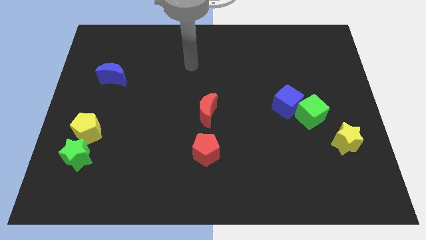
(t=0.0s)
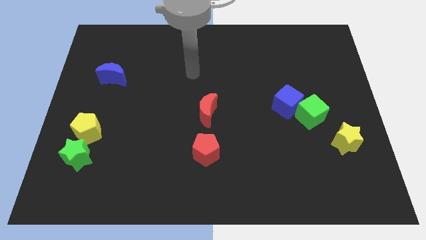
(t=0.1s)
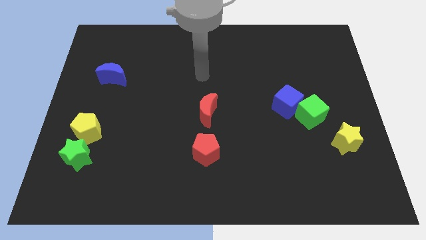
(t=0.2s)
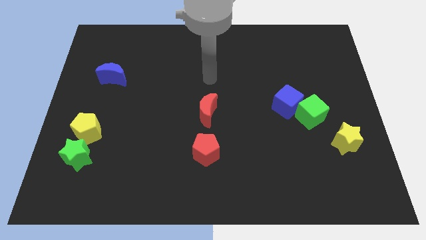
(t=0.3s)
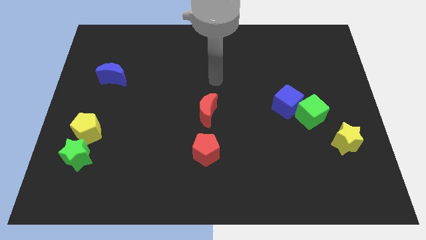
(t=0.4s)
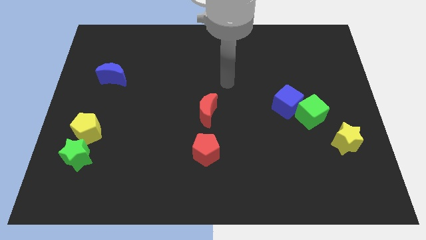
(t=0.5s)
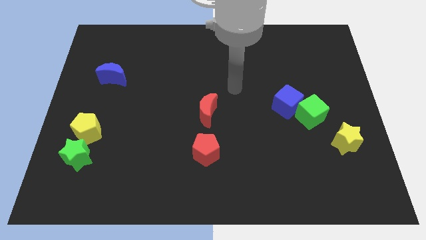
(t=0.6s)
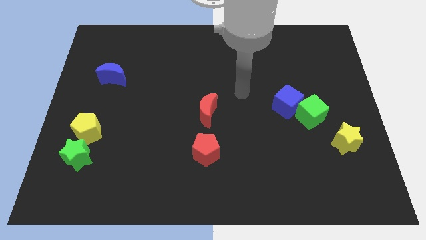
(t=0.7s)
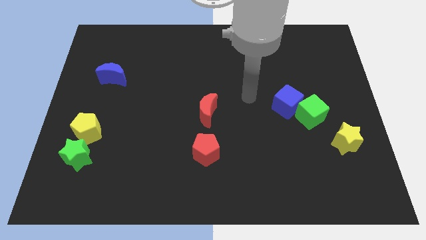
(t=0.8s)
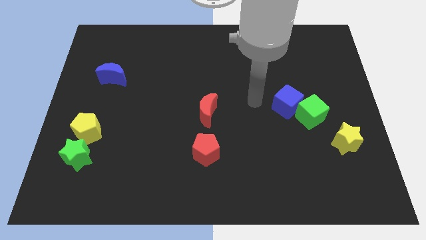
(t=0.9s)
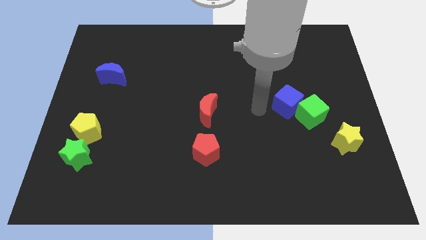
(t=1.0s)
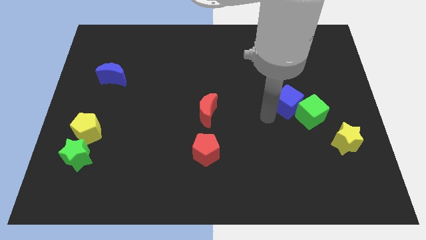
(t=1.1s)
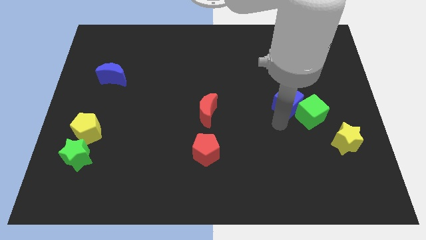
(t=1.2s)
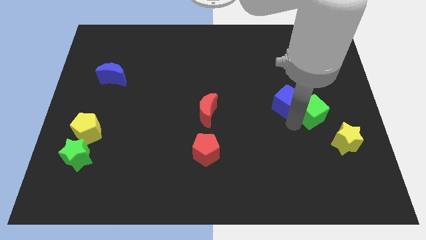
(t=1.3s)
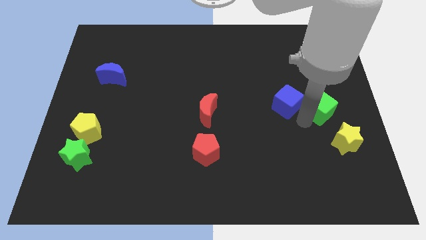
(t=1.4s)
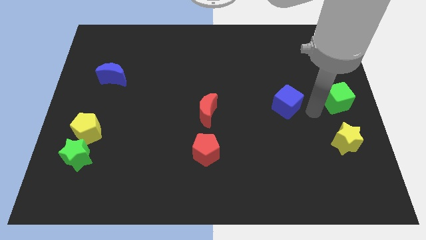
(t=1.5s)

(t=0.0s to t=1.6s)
pull the blue cube apart from the green cube

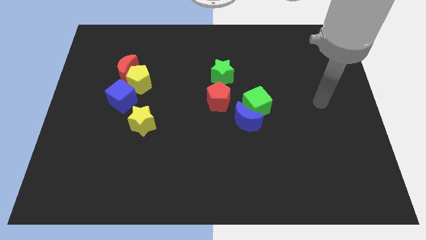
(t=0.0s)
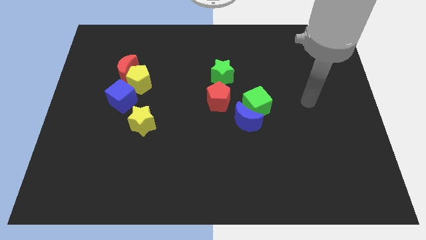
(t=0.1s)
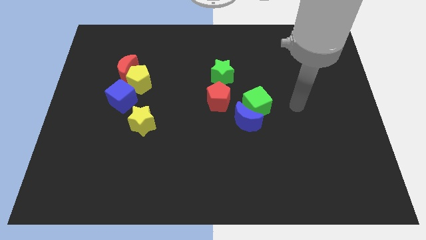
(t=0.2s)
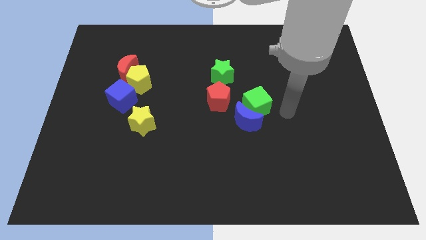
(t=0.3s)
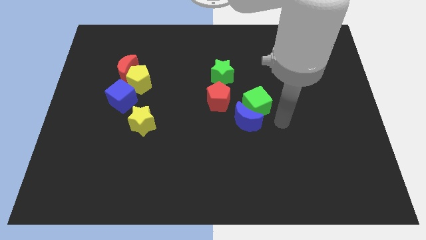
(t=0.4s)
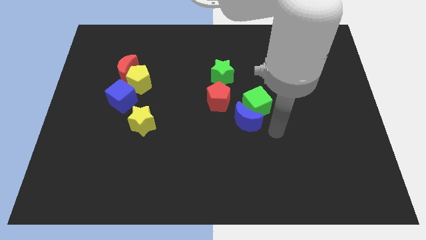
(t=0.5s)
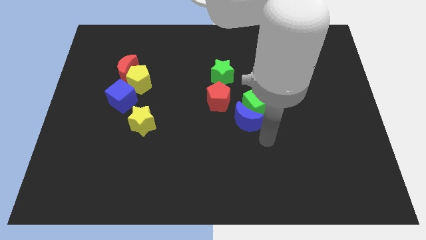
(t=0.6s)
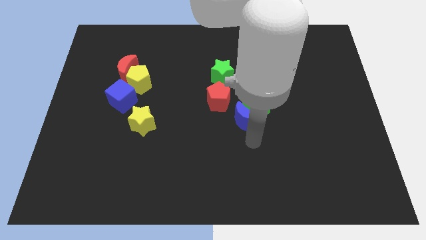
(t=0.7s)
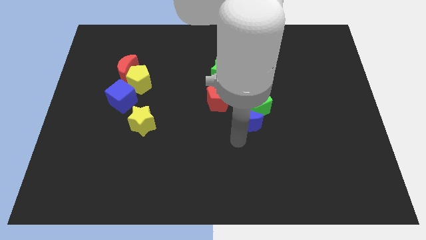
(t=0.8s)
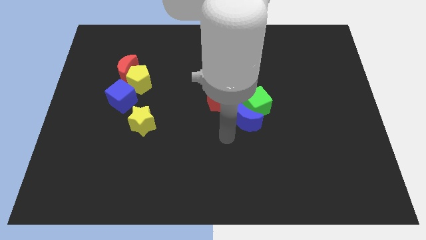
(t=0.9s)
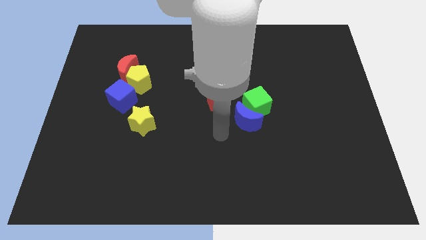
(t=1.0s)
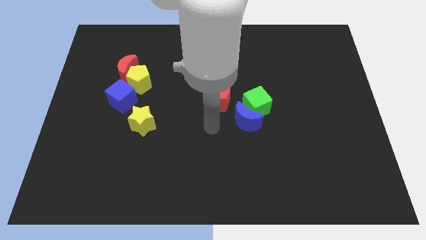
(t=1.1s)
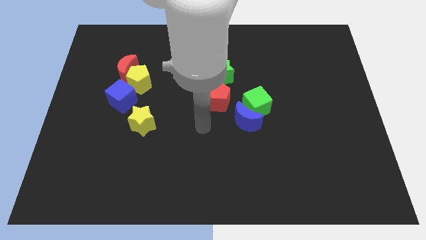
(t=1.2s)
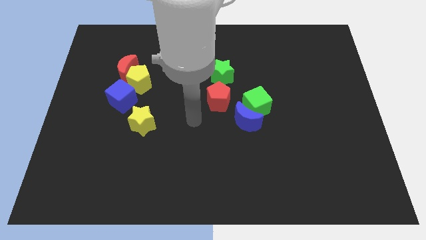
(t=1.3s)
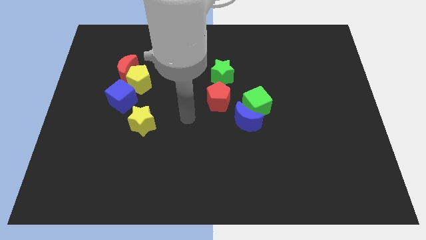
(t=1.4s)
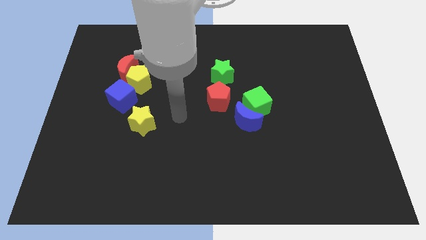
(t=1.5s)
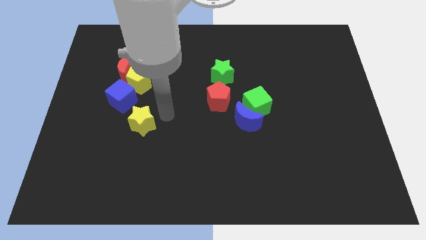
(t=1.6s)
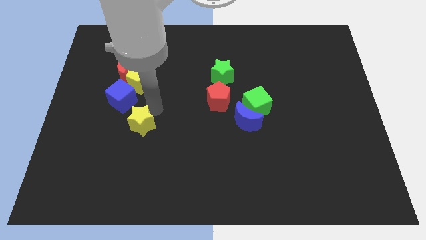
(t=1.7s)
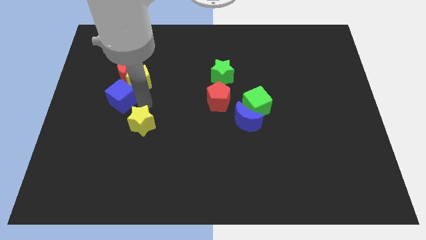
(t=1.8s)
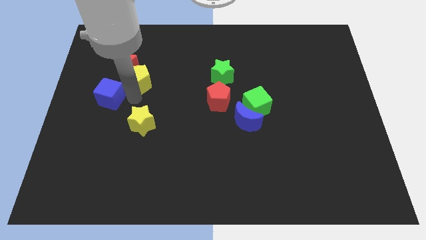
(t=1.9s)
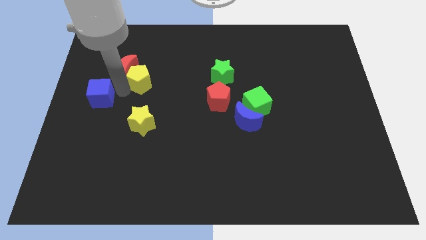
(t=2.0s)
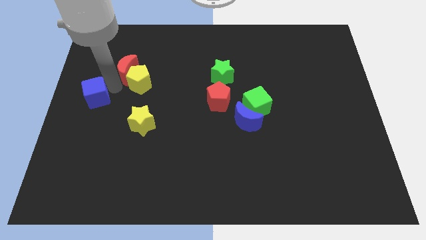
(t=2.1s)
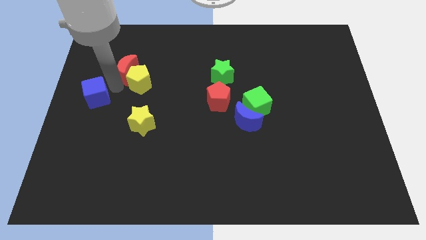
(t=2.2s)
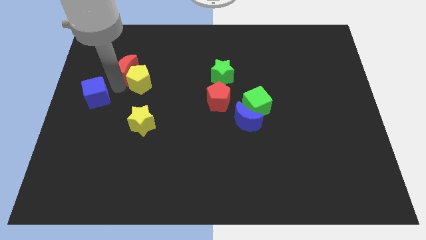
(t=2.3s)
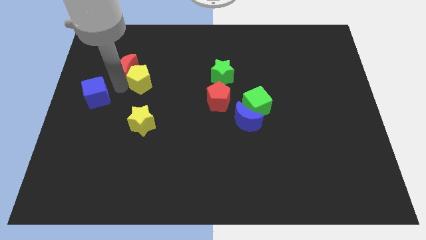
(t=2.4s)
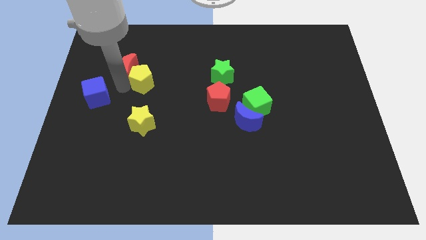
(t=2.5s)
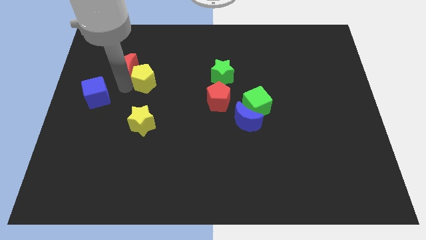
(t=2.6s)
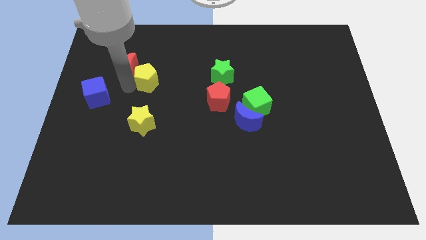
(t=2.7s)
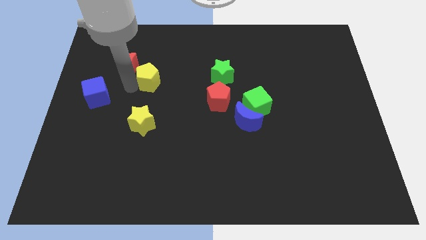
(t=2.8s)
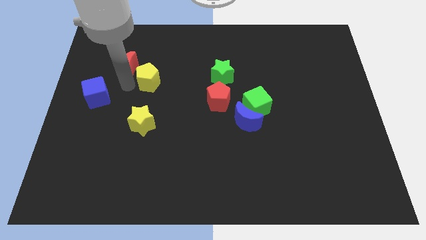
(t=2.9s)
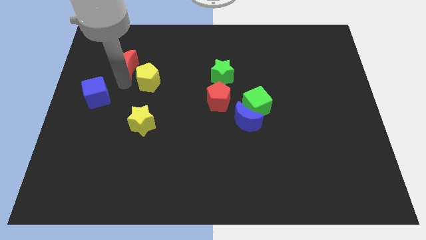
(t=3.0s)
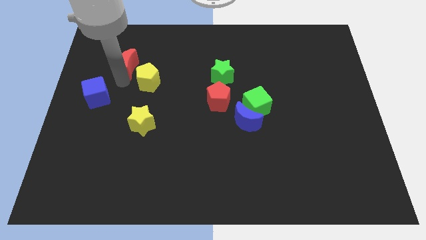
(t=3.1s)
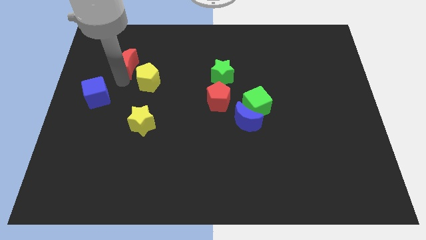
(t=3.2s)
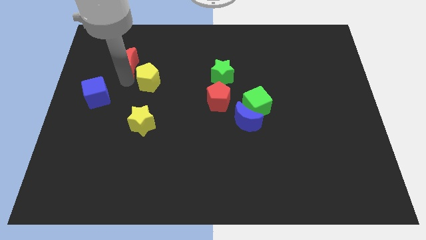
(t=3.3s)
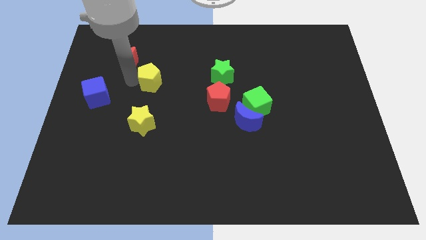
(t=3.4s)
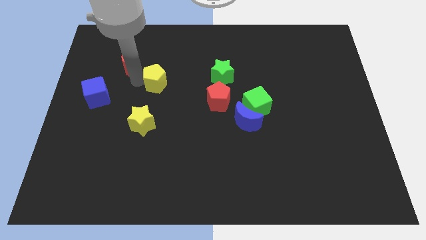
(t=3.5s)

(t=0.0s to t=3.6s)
move the yellow pentagon away from the red moon and blue cube

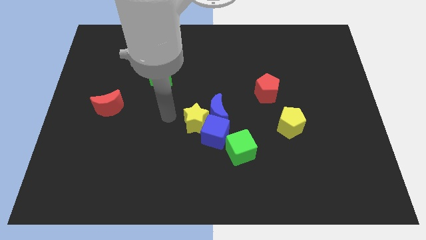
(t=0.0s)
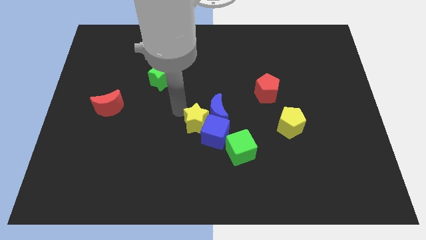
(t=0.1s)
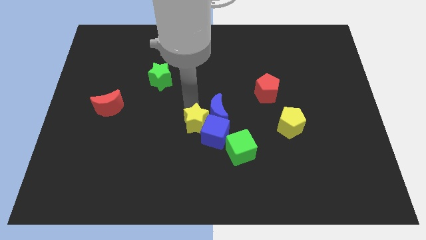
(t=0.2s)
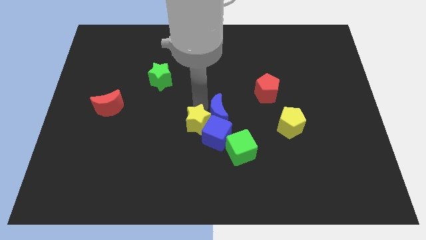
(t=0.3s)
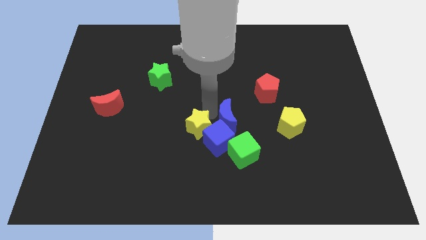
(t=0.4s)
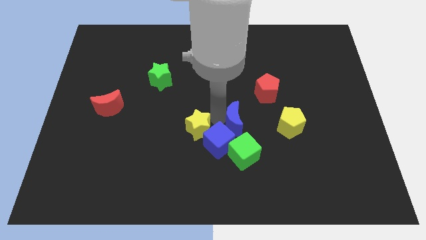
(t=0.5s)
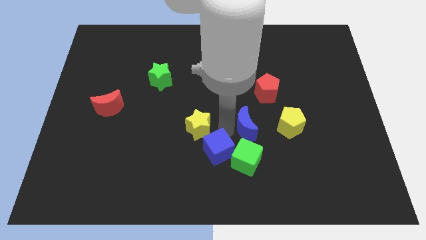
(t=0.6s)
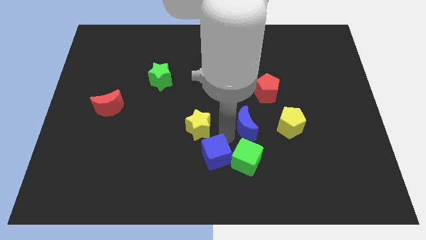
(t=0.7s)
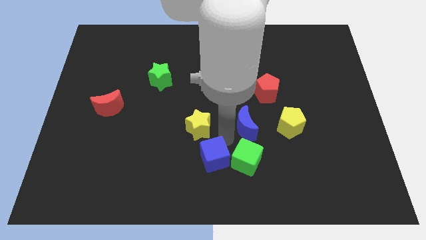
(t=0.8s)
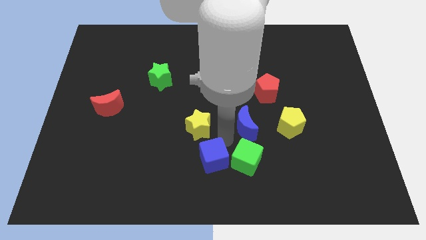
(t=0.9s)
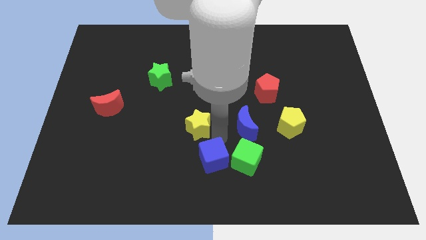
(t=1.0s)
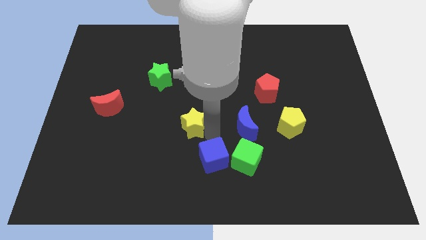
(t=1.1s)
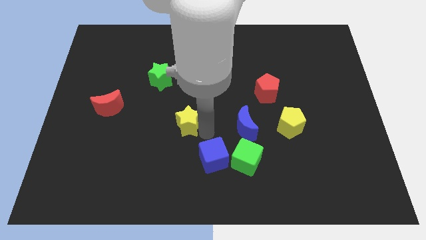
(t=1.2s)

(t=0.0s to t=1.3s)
pull the yellow star apart from the blue cube and blue moon

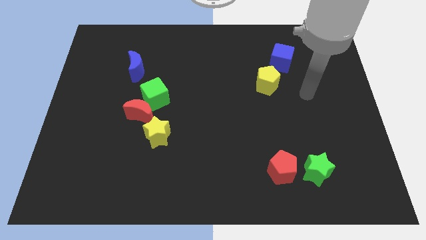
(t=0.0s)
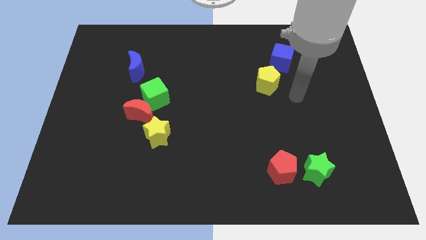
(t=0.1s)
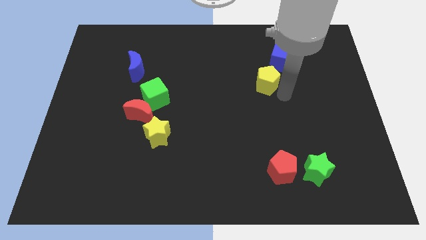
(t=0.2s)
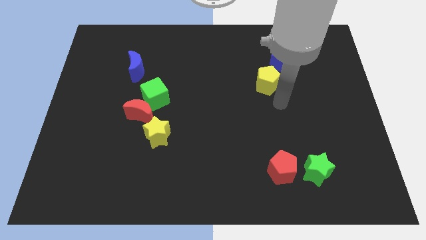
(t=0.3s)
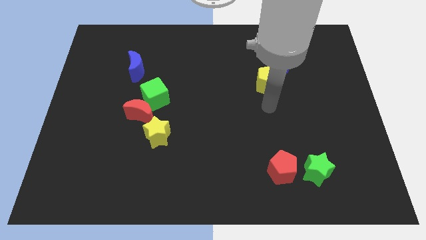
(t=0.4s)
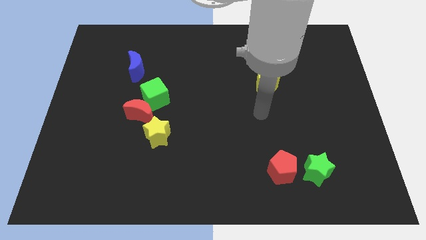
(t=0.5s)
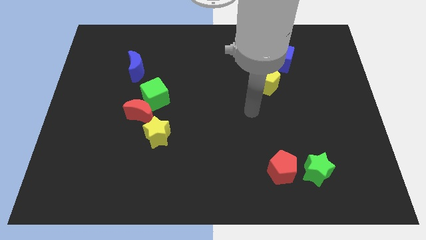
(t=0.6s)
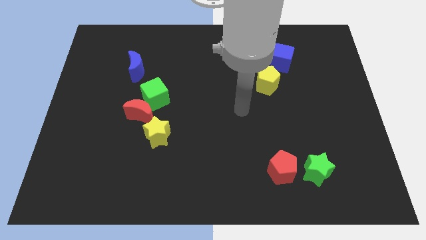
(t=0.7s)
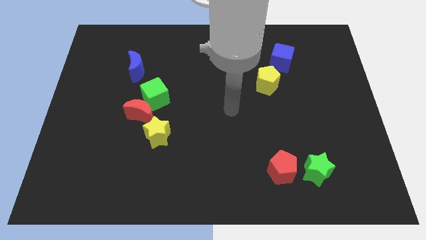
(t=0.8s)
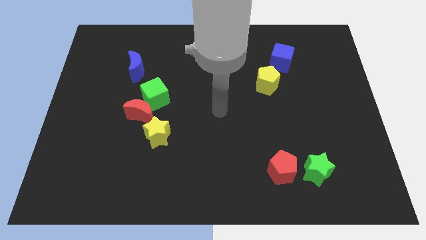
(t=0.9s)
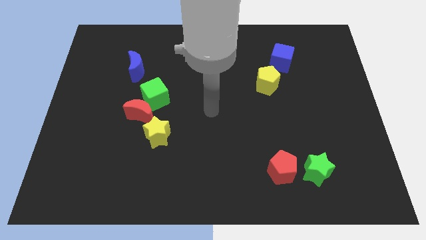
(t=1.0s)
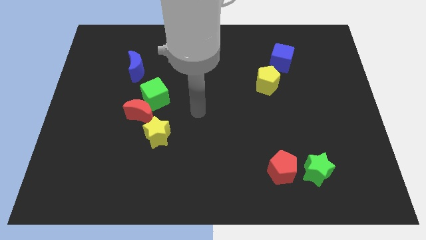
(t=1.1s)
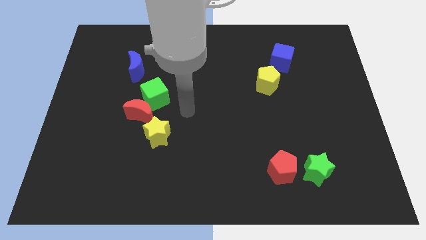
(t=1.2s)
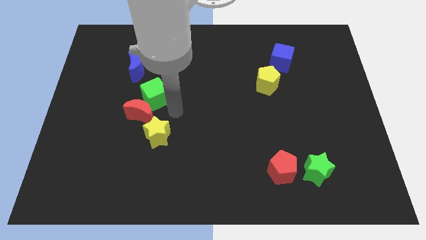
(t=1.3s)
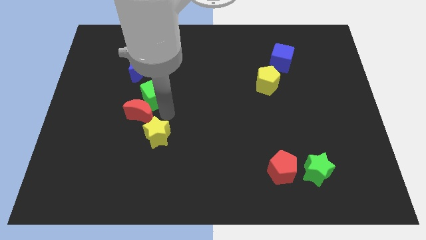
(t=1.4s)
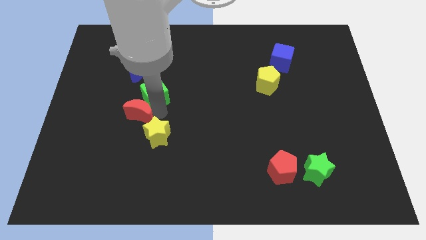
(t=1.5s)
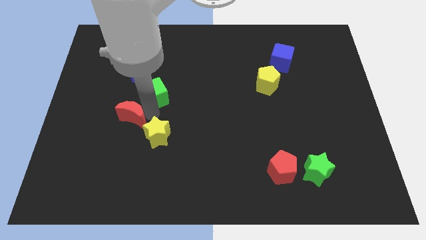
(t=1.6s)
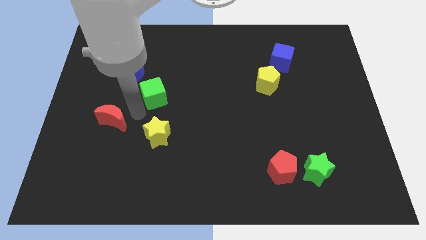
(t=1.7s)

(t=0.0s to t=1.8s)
separate the green cube from the red moon

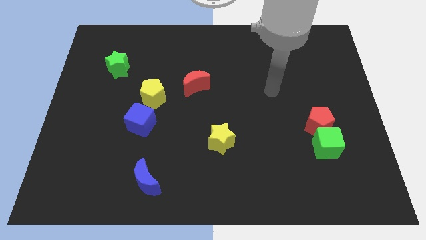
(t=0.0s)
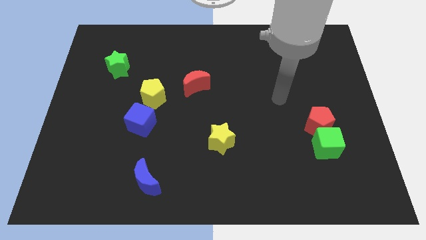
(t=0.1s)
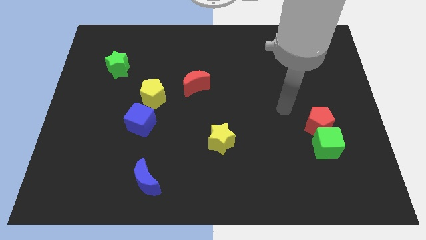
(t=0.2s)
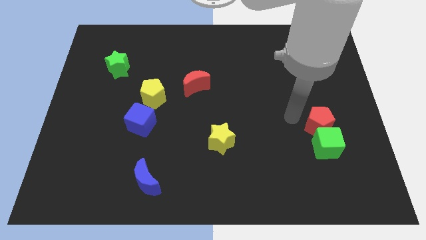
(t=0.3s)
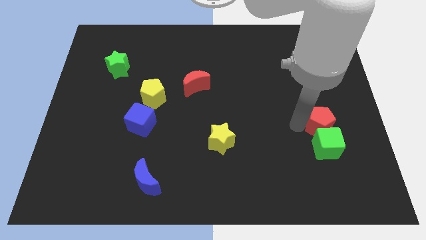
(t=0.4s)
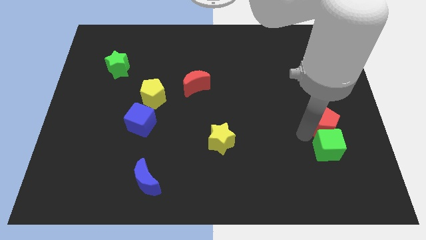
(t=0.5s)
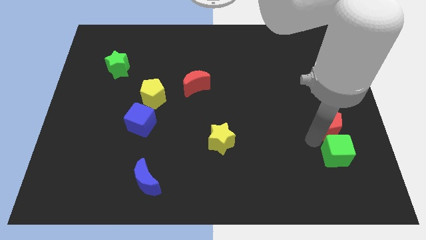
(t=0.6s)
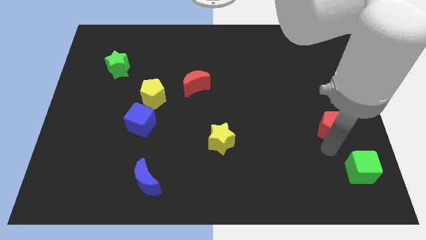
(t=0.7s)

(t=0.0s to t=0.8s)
pull the red pentagon apart from the green cube

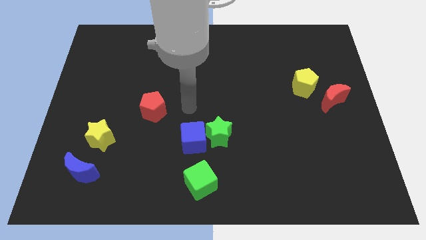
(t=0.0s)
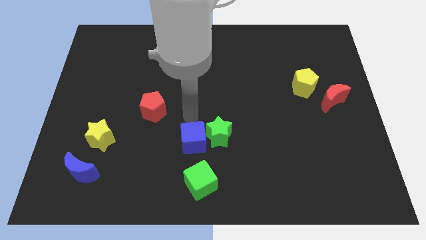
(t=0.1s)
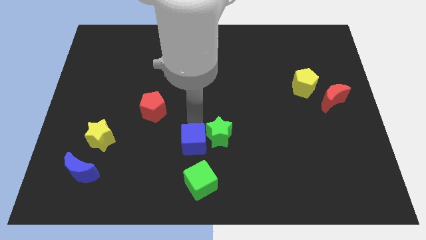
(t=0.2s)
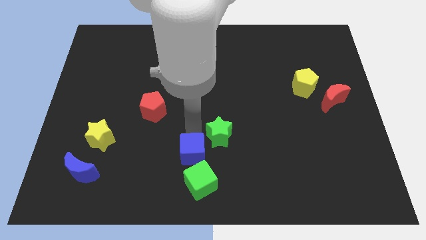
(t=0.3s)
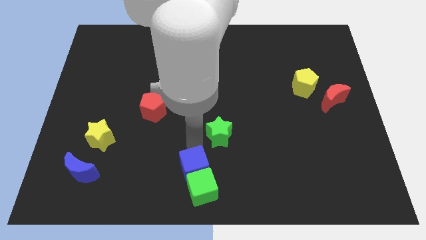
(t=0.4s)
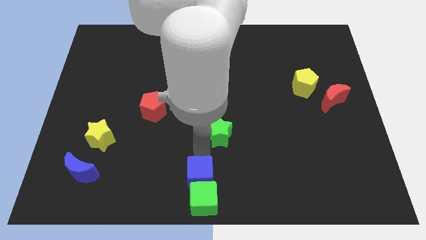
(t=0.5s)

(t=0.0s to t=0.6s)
separate the green star from the blue cube
